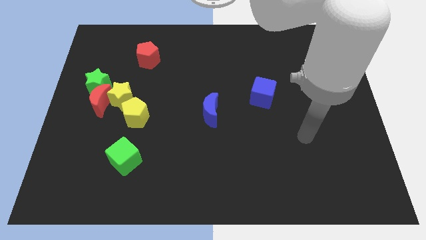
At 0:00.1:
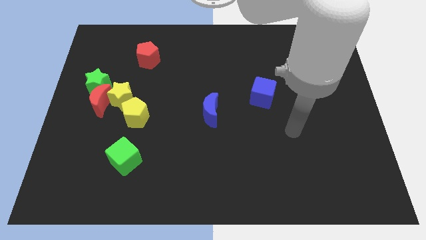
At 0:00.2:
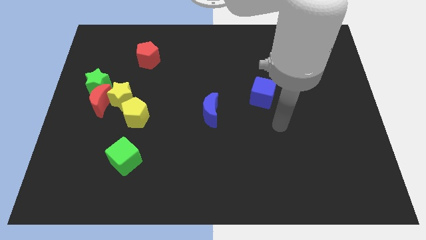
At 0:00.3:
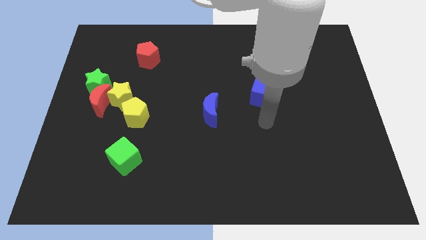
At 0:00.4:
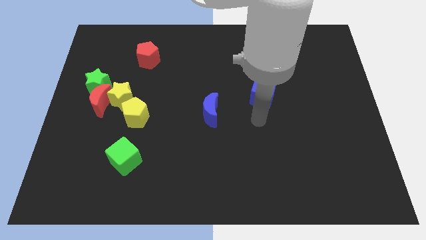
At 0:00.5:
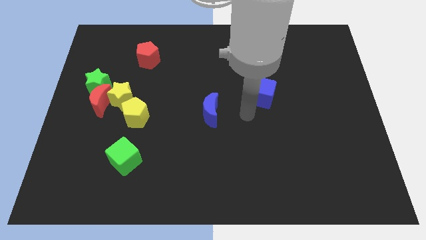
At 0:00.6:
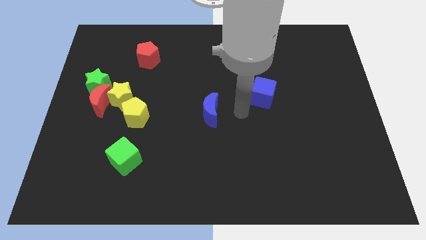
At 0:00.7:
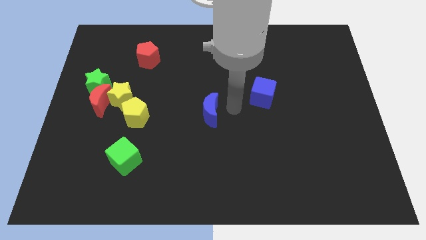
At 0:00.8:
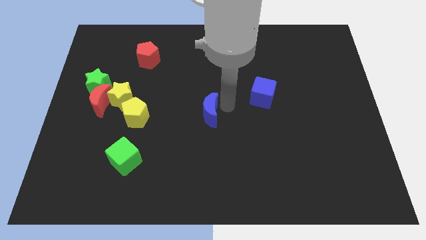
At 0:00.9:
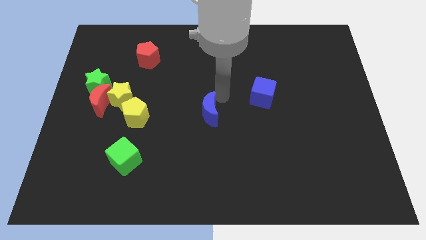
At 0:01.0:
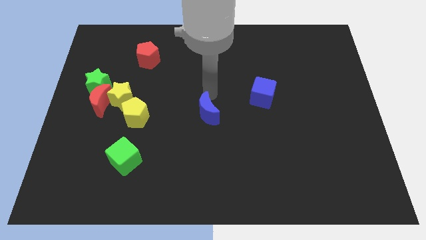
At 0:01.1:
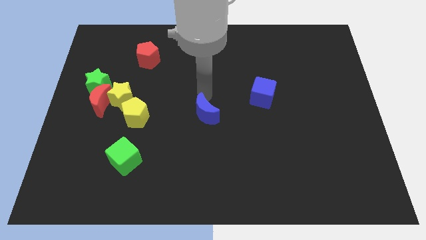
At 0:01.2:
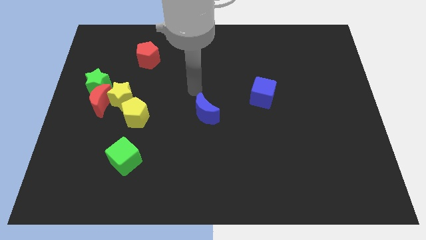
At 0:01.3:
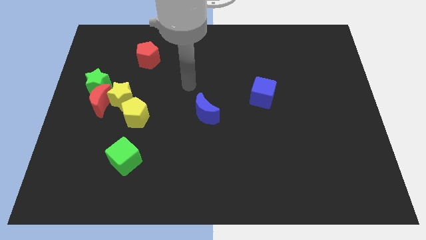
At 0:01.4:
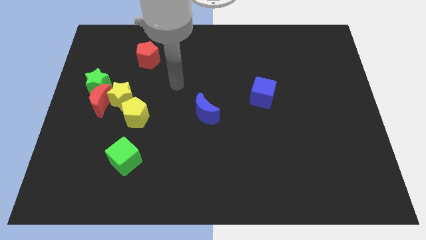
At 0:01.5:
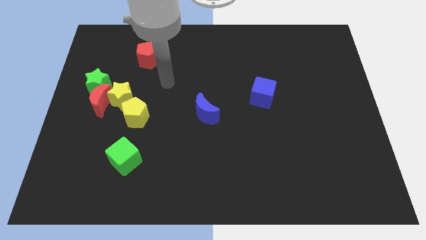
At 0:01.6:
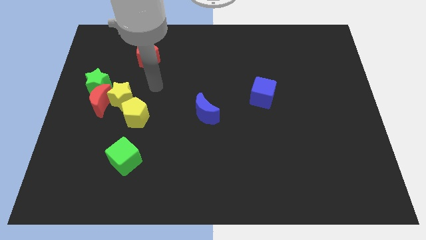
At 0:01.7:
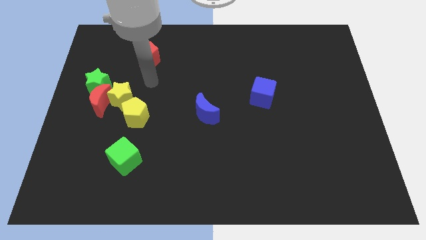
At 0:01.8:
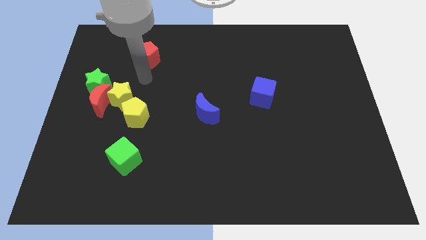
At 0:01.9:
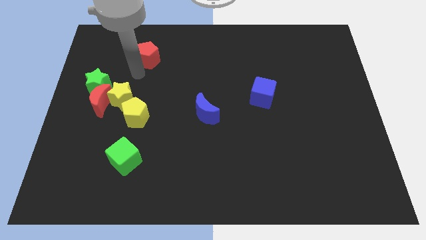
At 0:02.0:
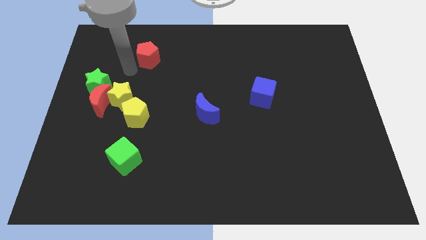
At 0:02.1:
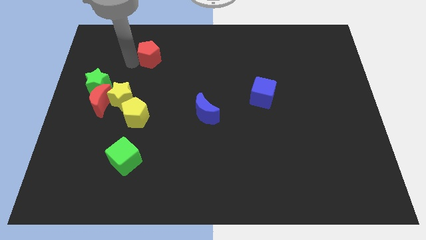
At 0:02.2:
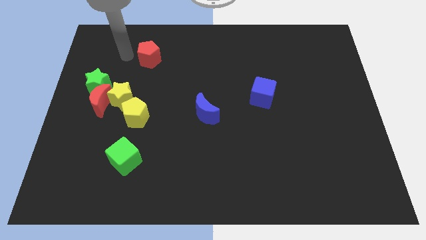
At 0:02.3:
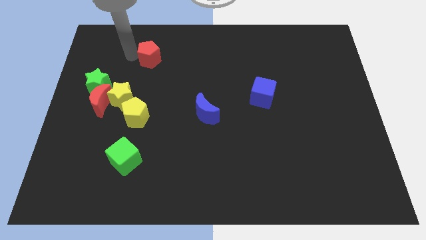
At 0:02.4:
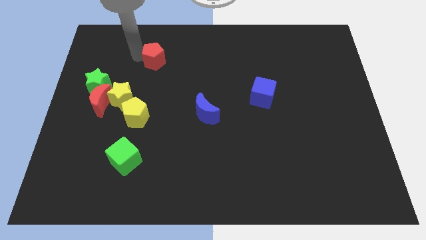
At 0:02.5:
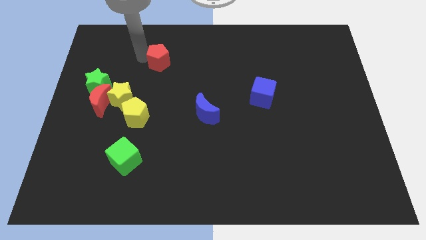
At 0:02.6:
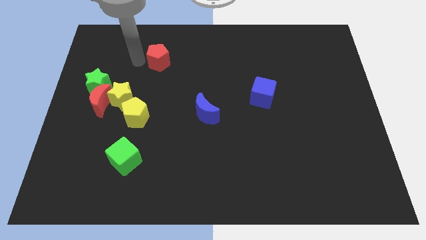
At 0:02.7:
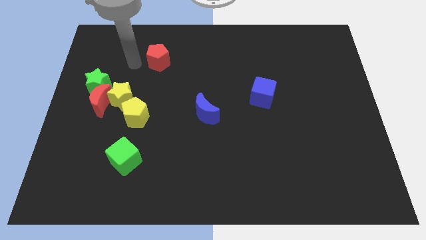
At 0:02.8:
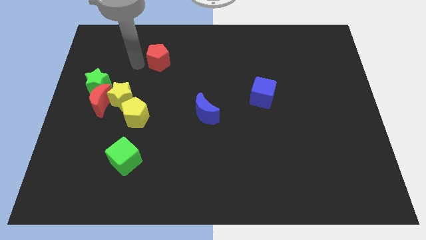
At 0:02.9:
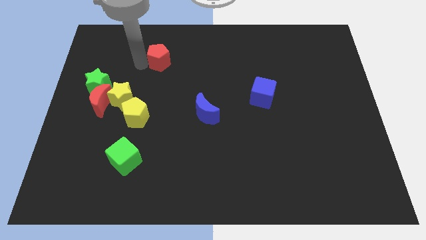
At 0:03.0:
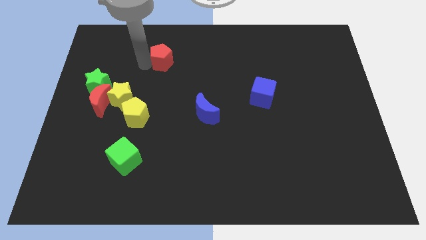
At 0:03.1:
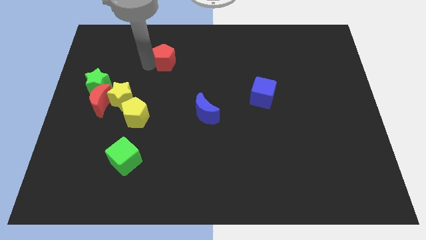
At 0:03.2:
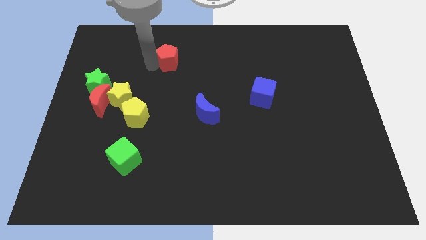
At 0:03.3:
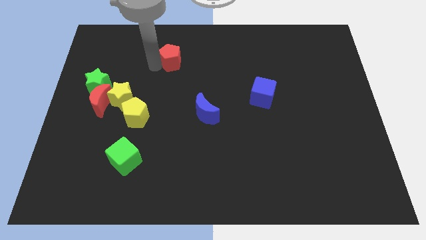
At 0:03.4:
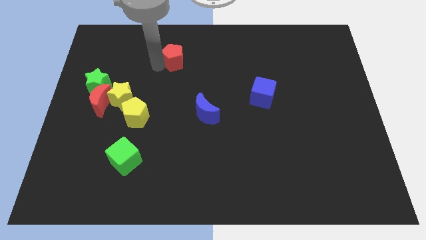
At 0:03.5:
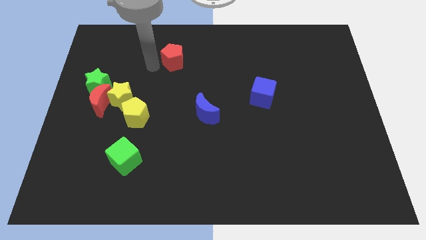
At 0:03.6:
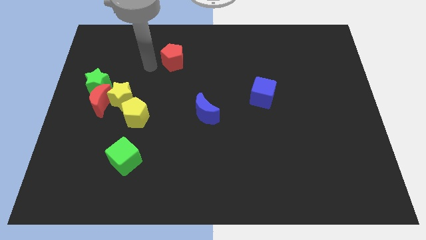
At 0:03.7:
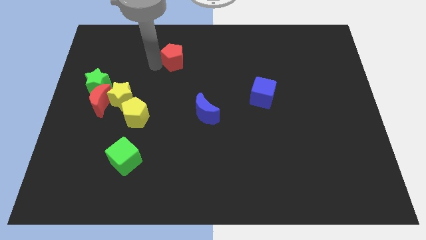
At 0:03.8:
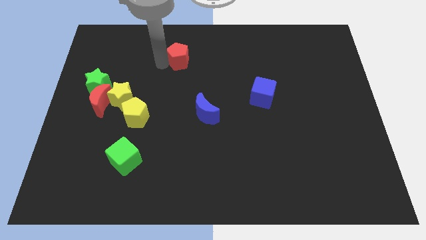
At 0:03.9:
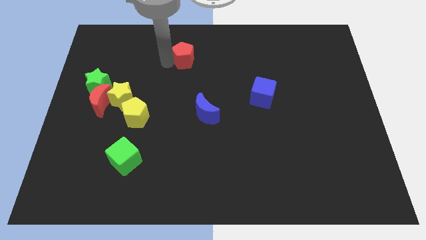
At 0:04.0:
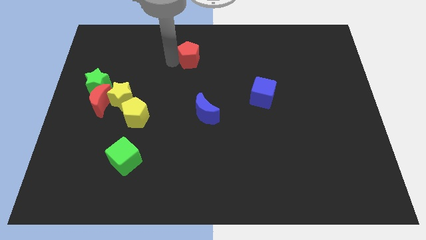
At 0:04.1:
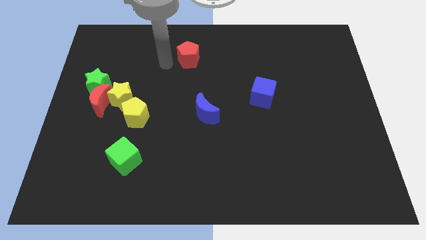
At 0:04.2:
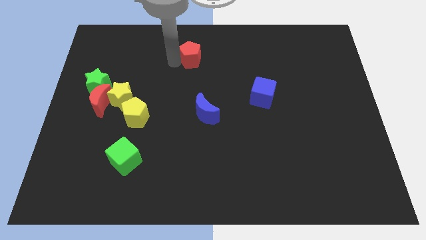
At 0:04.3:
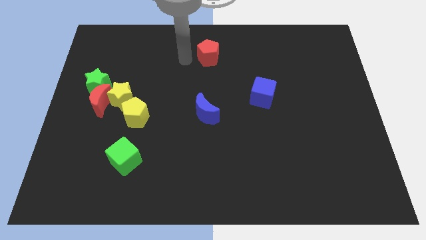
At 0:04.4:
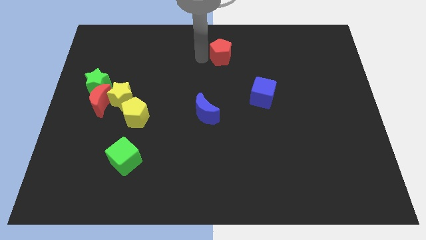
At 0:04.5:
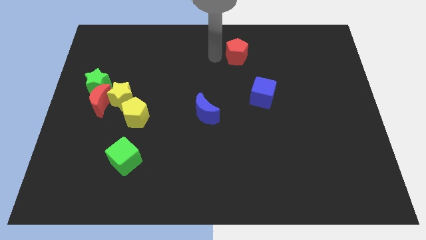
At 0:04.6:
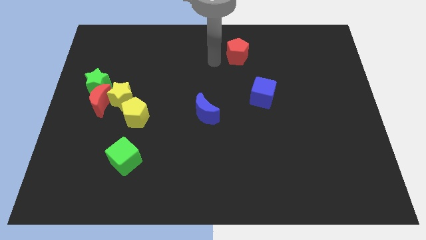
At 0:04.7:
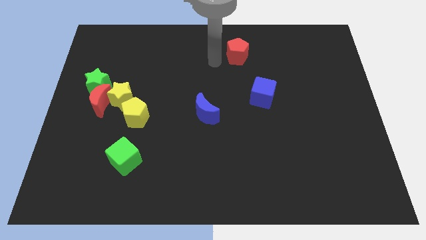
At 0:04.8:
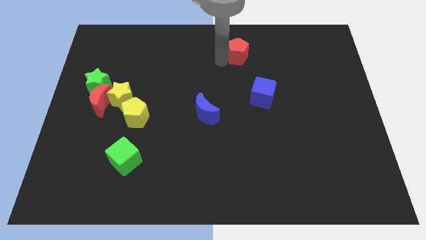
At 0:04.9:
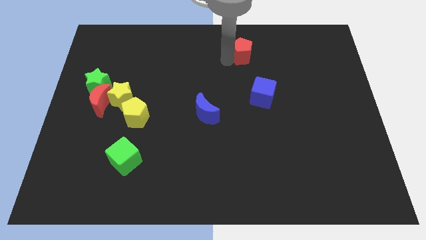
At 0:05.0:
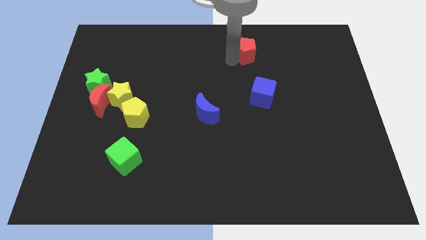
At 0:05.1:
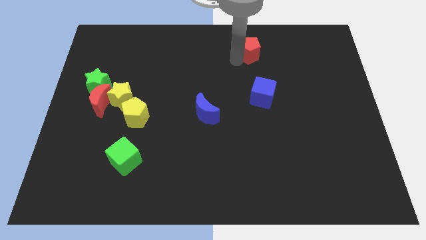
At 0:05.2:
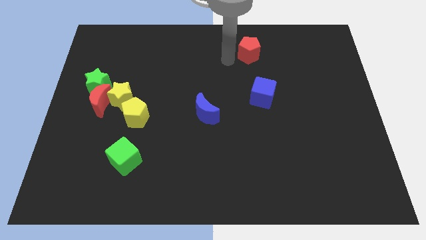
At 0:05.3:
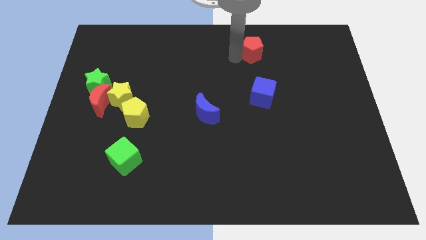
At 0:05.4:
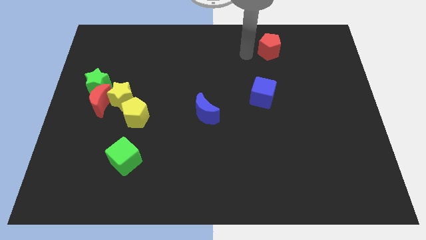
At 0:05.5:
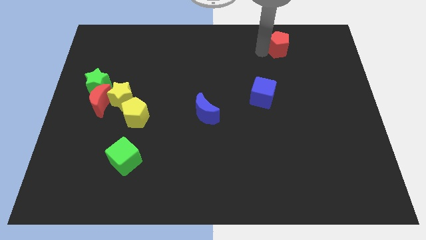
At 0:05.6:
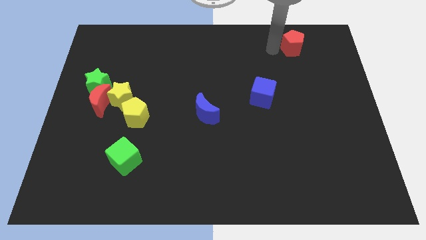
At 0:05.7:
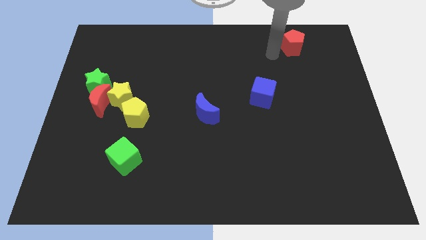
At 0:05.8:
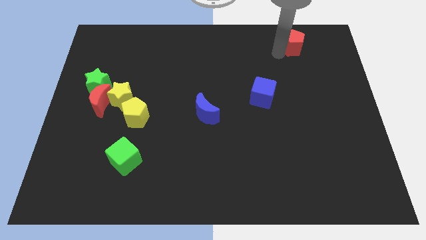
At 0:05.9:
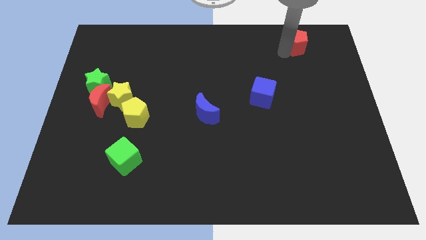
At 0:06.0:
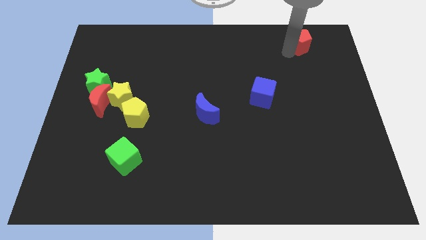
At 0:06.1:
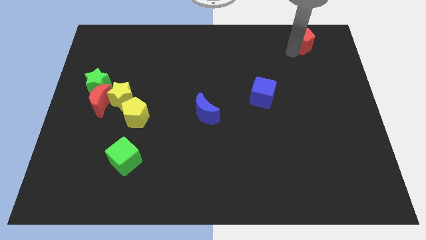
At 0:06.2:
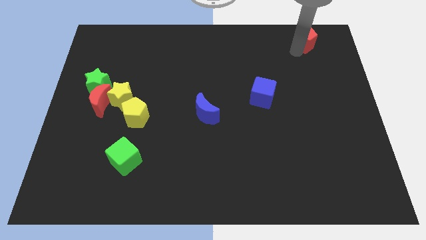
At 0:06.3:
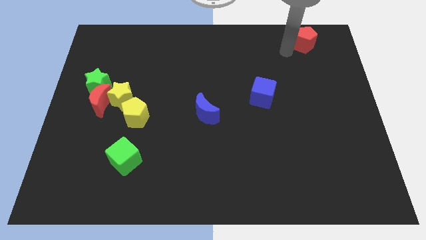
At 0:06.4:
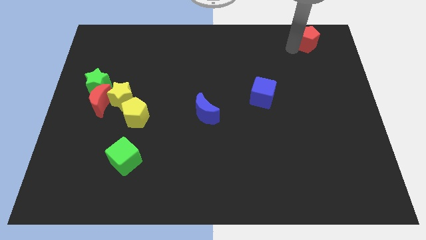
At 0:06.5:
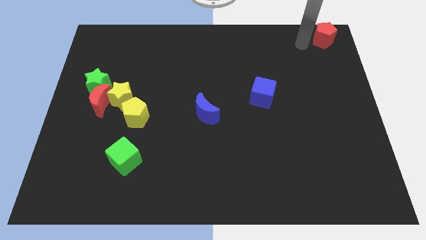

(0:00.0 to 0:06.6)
move the red pentagon to the upper right corner
